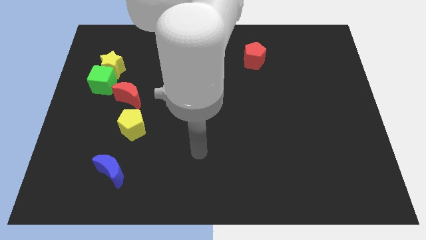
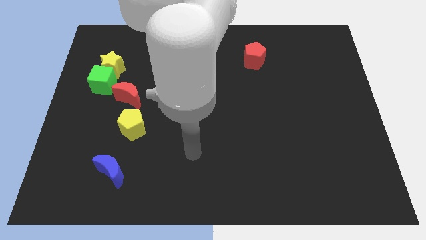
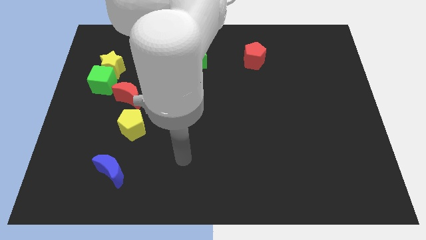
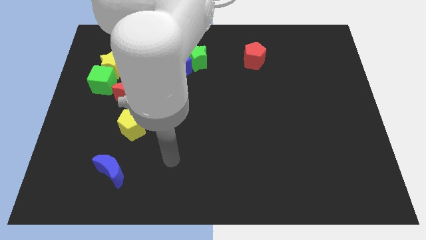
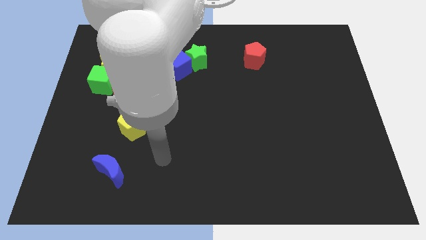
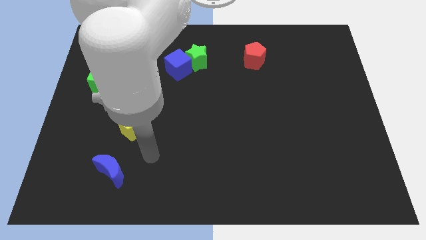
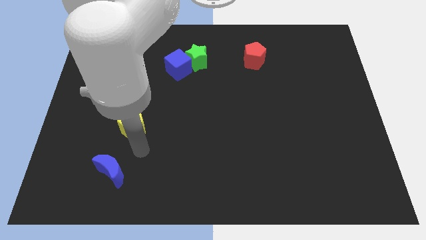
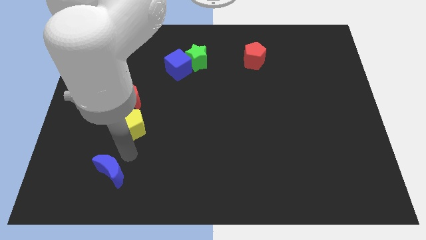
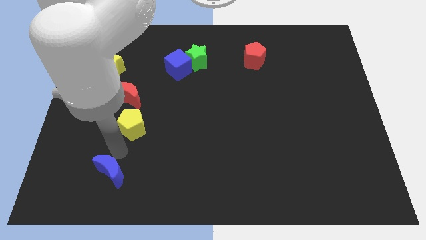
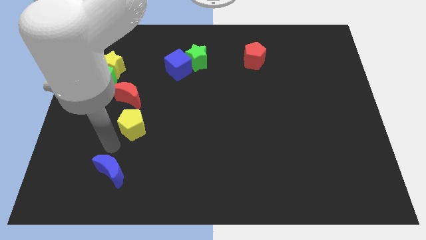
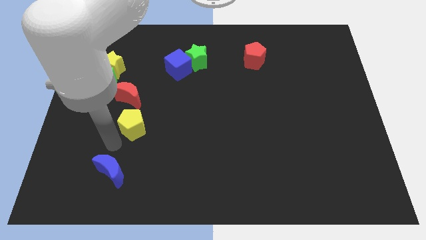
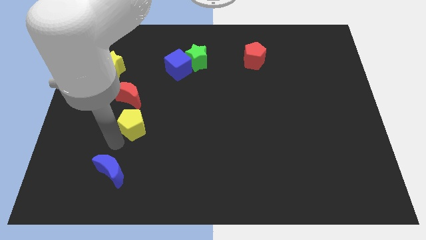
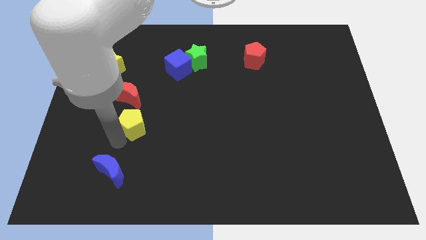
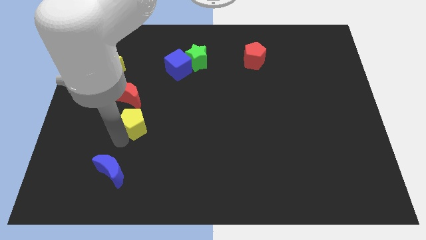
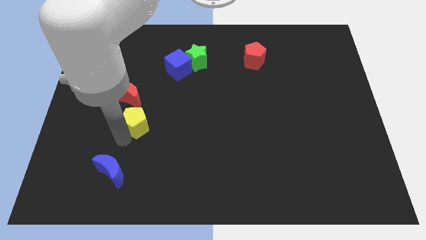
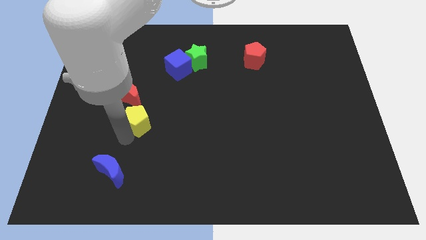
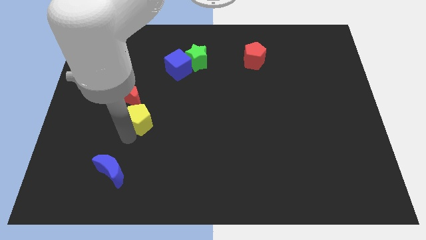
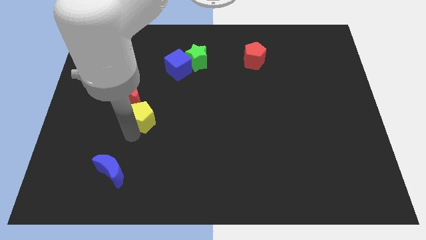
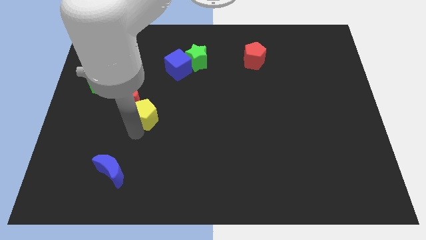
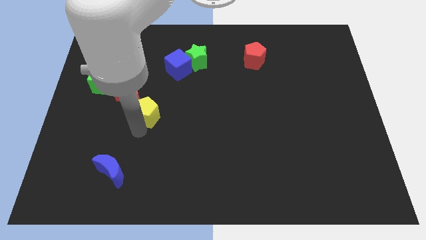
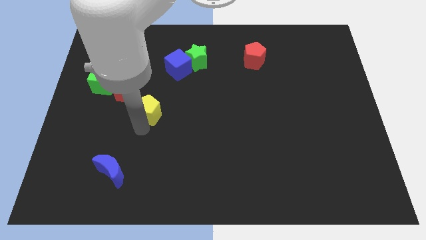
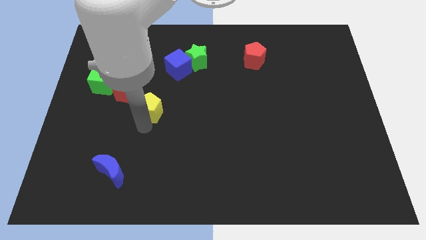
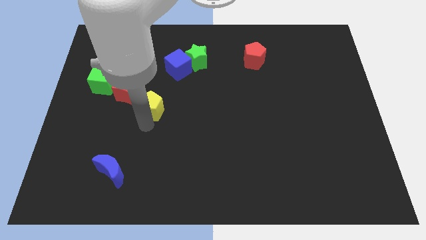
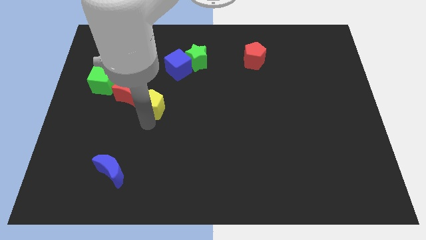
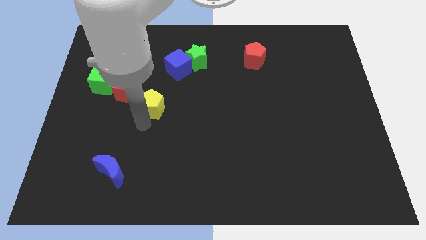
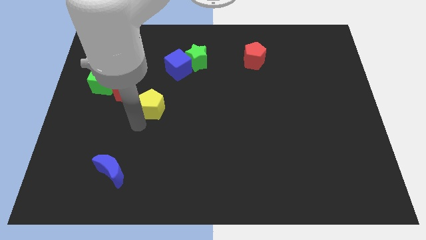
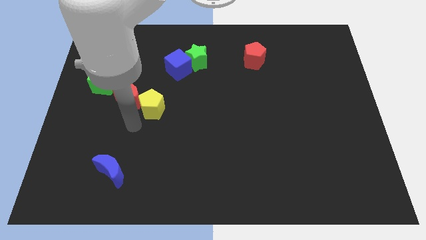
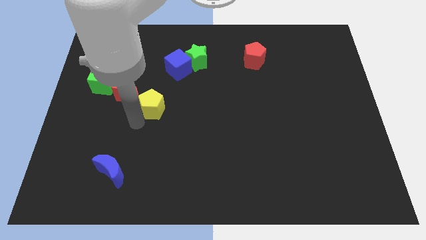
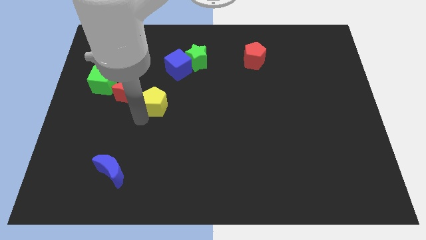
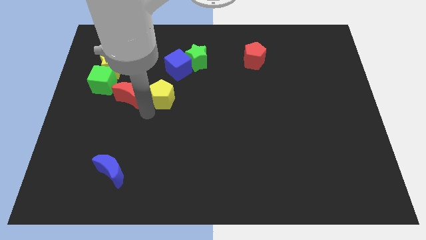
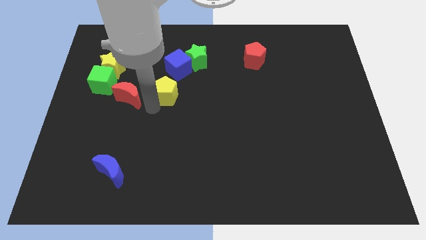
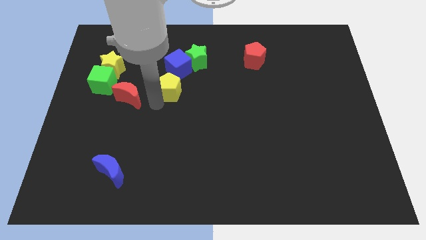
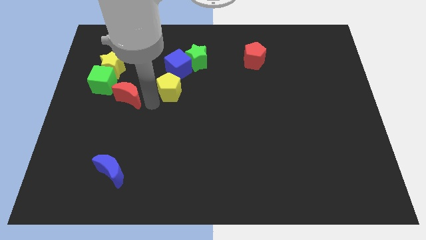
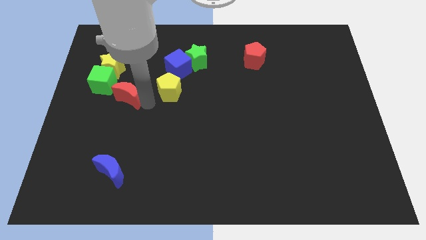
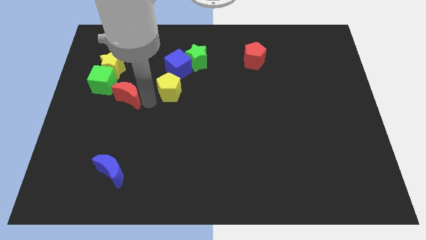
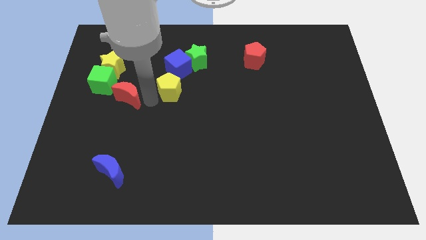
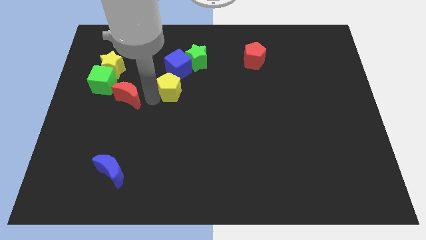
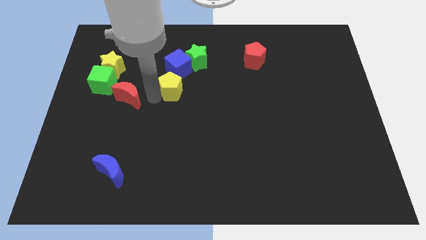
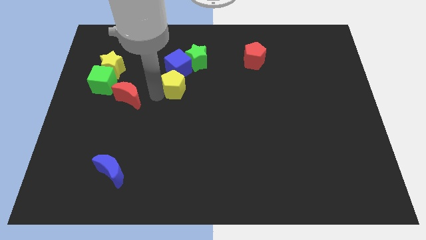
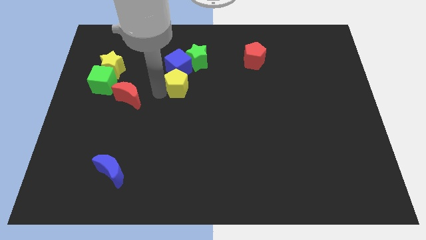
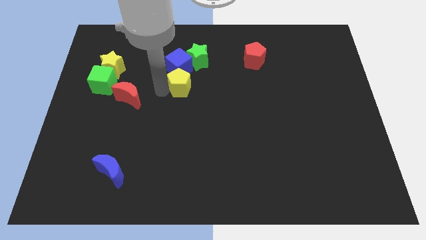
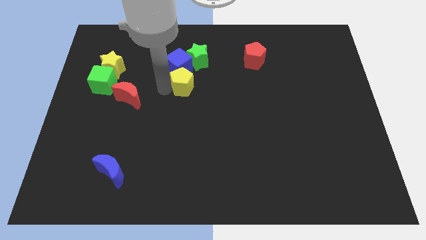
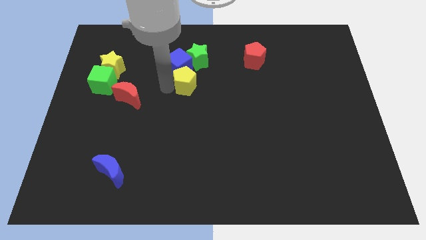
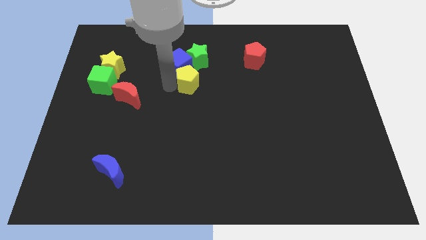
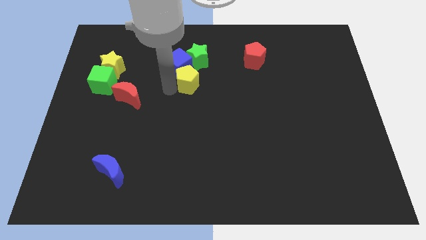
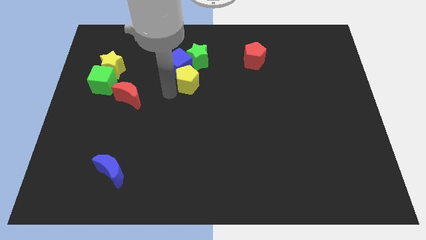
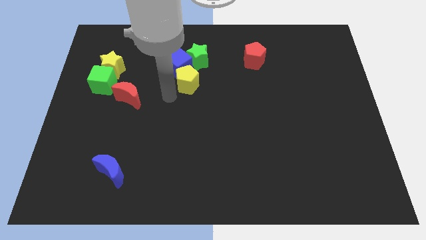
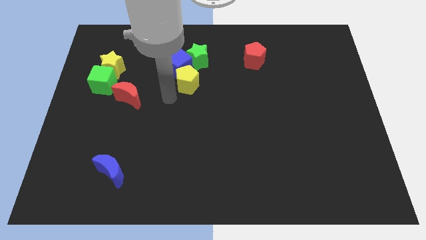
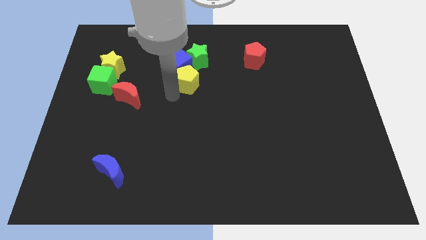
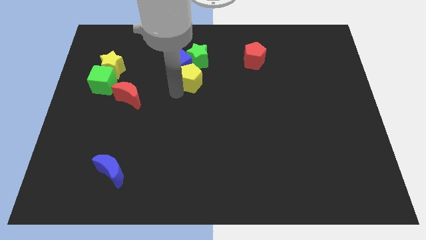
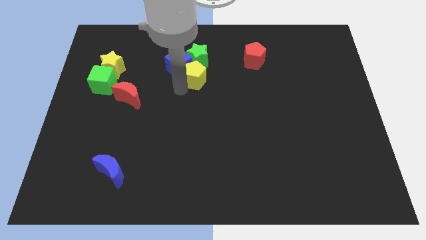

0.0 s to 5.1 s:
slide the yellow pentagon up and to the right diagonally

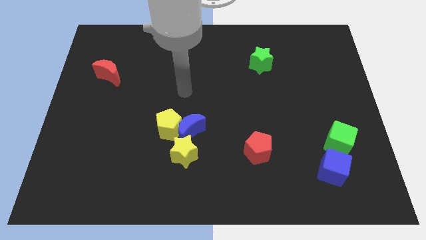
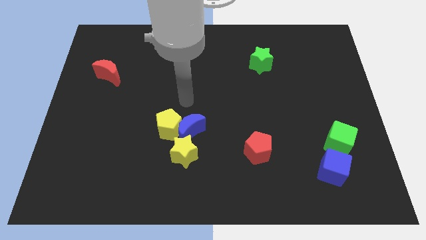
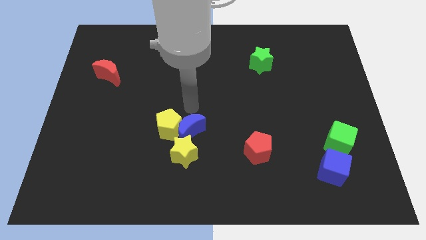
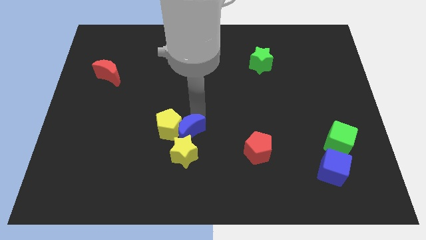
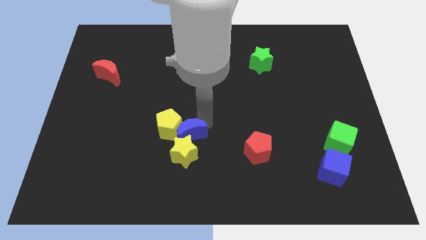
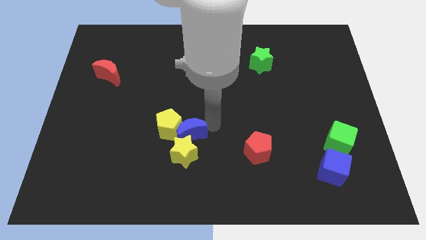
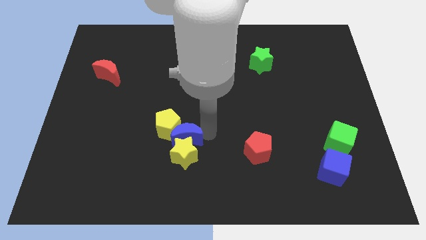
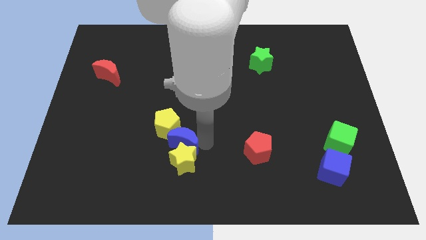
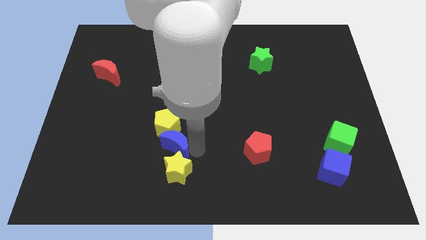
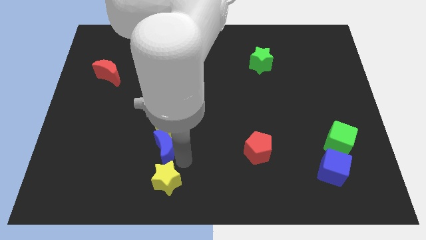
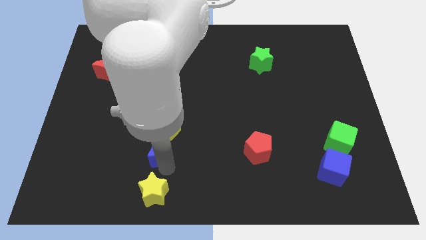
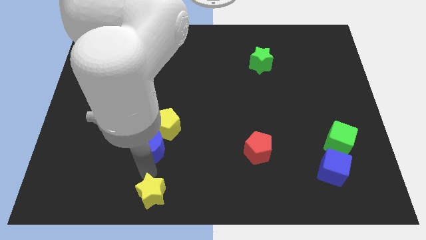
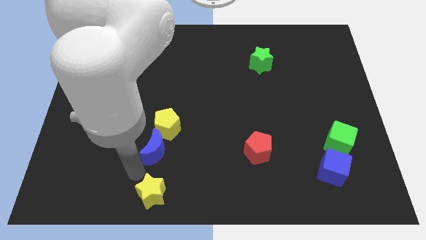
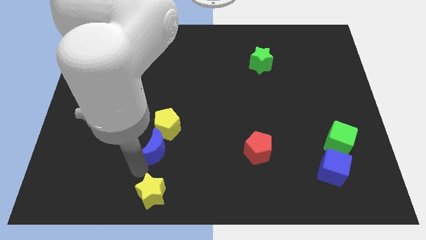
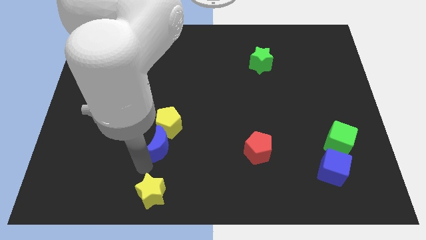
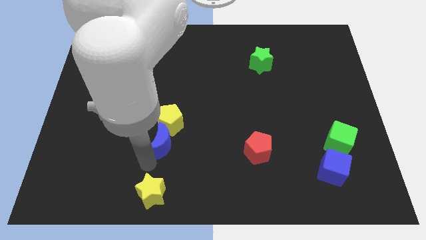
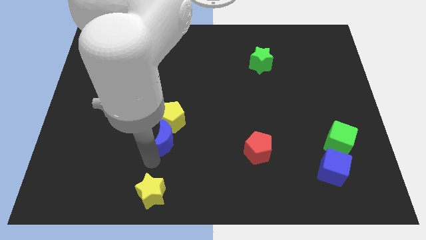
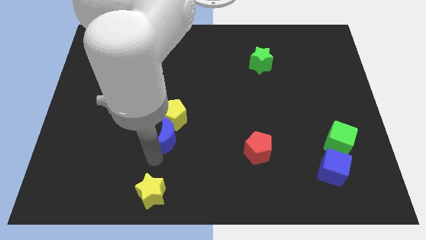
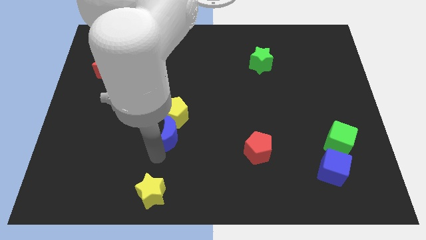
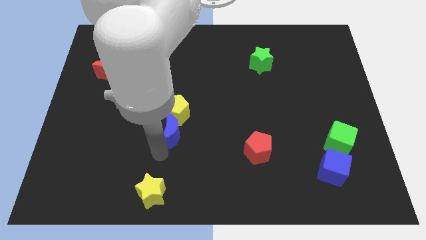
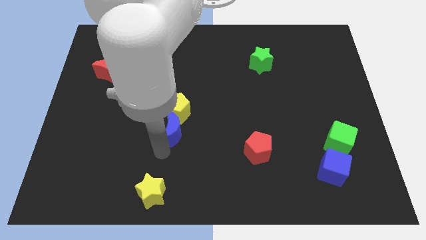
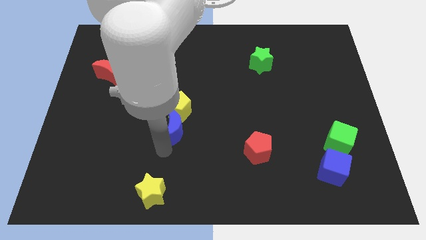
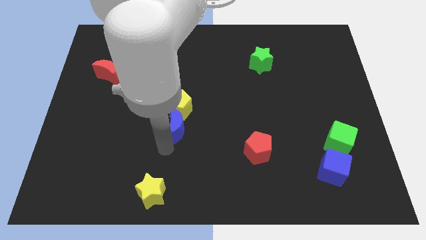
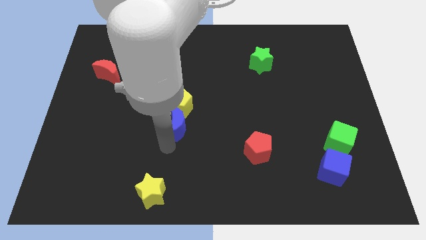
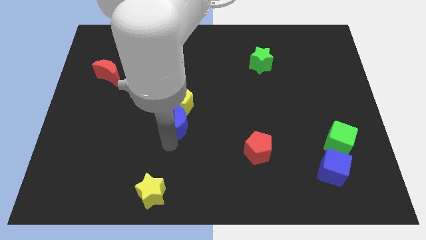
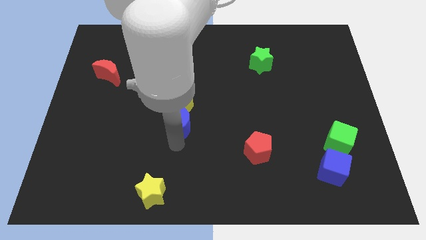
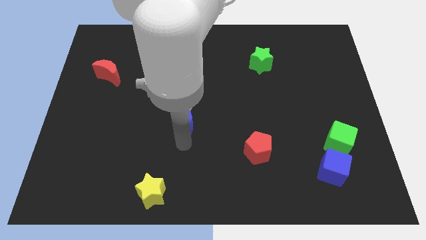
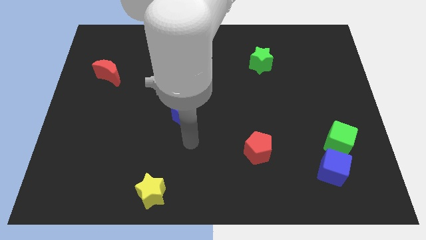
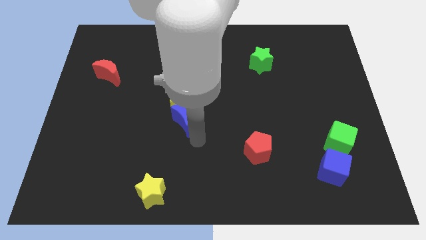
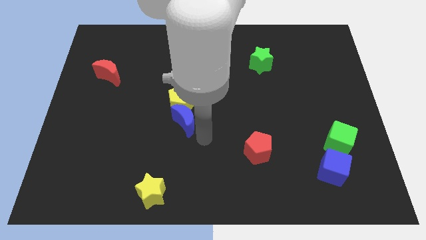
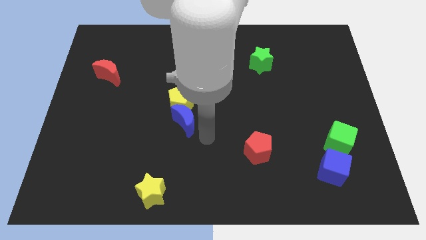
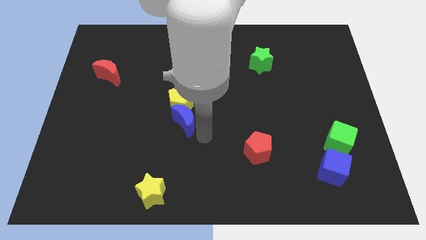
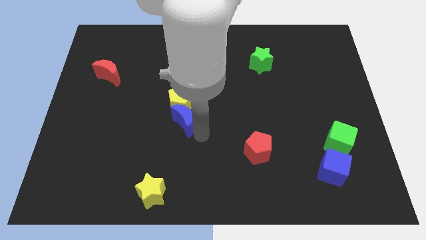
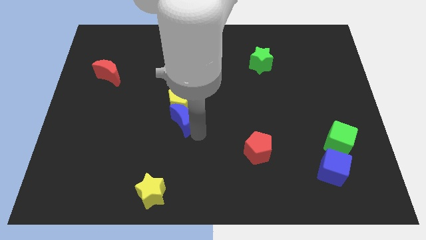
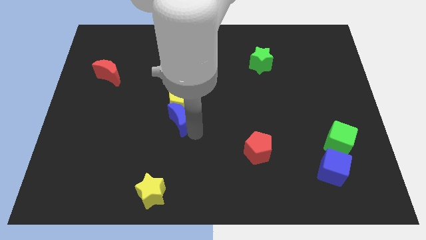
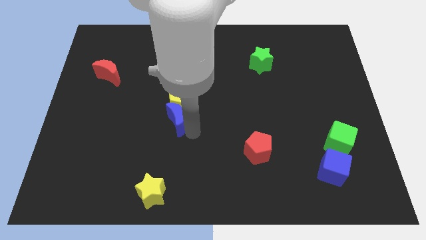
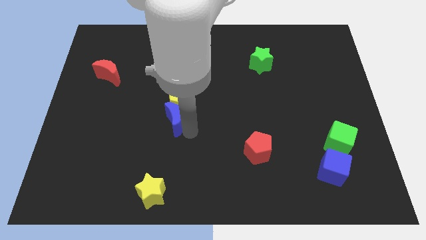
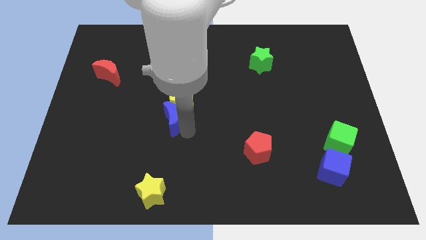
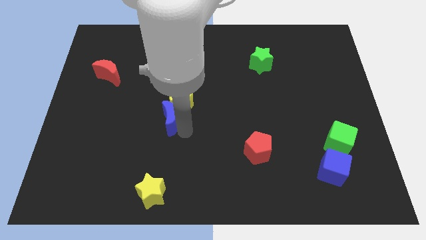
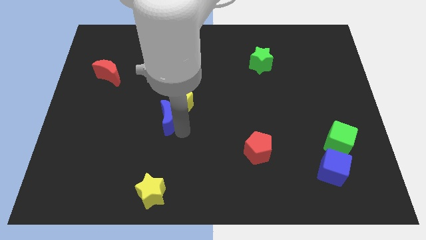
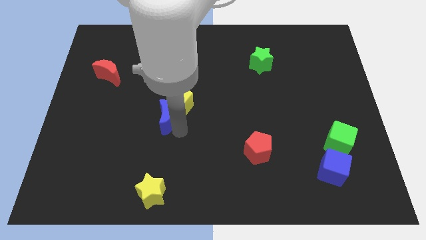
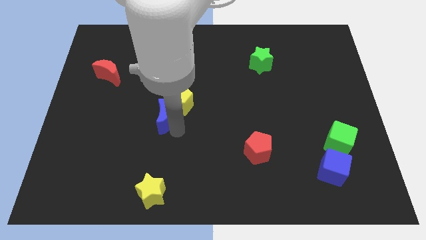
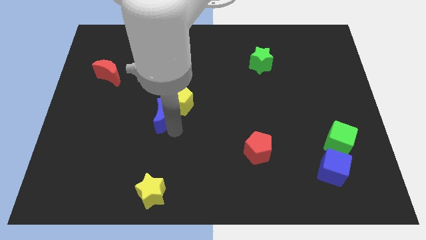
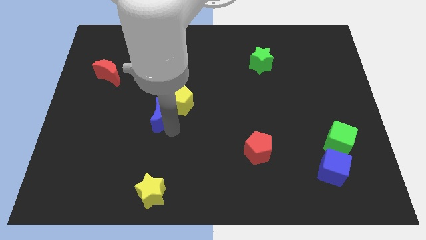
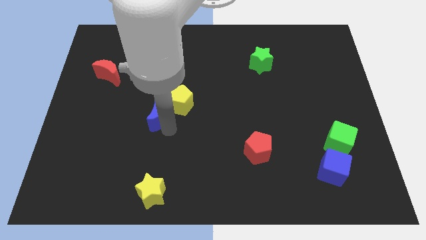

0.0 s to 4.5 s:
slightly push the blue moon left
